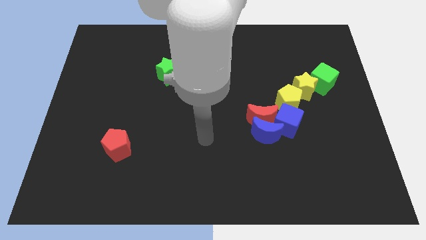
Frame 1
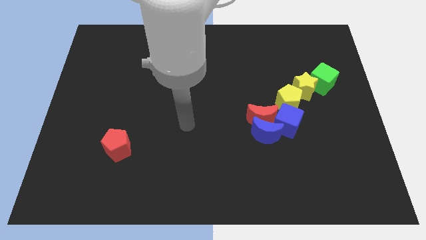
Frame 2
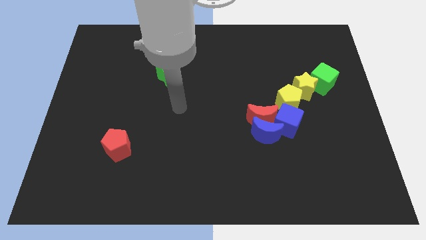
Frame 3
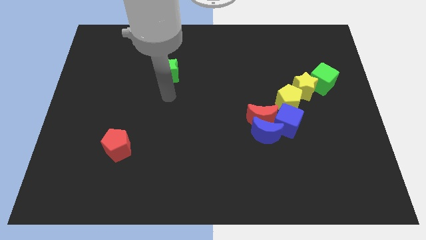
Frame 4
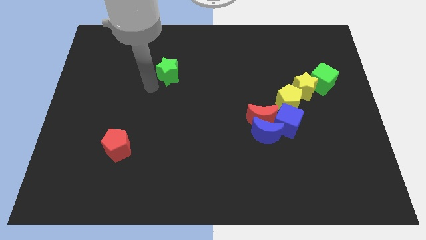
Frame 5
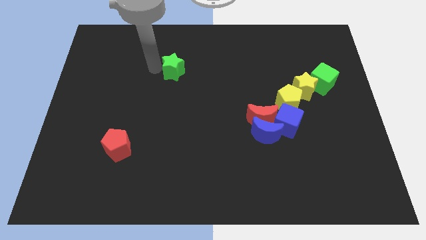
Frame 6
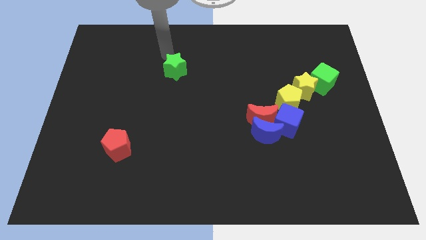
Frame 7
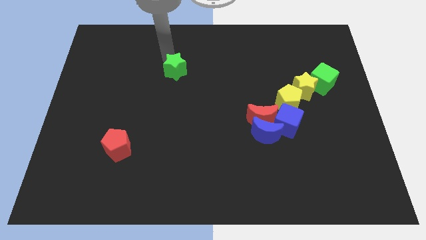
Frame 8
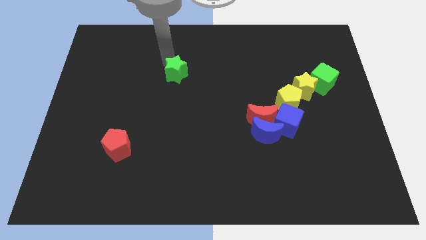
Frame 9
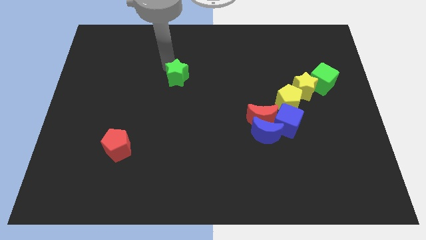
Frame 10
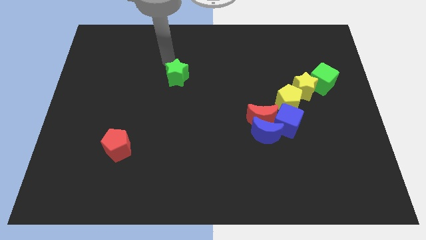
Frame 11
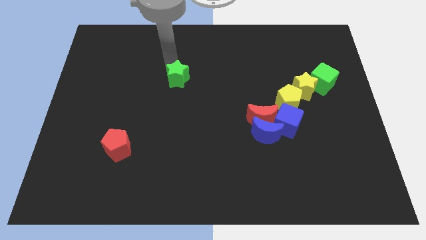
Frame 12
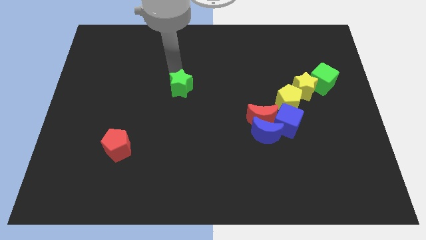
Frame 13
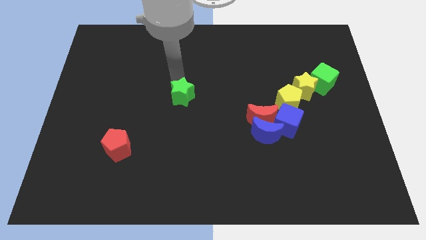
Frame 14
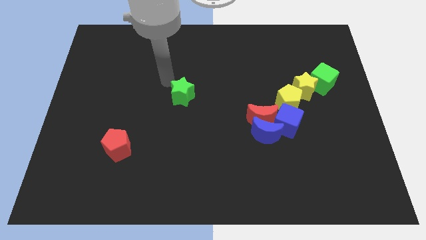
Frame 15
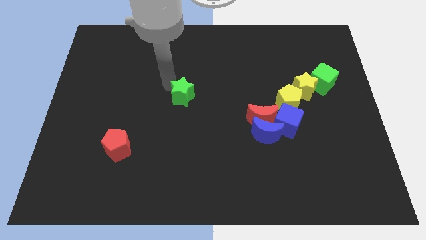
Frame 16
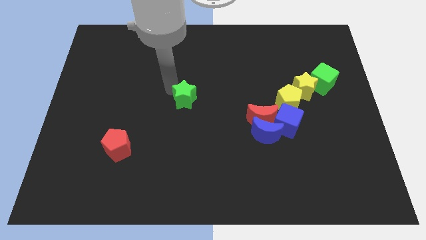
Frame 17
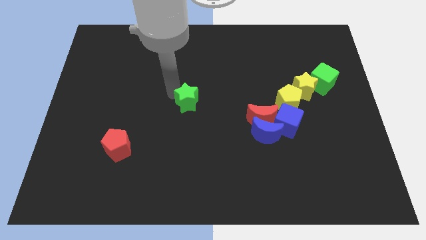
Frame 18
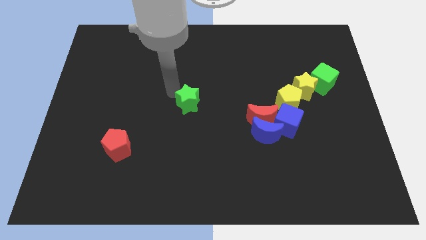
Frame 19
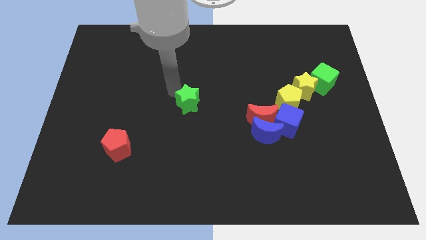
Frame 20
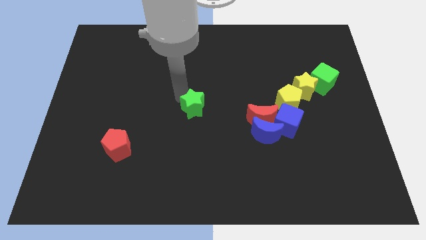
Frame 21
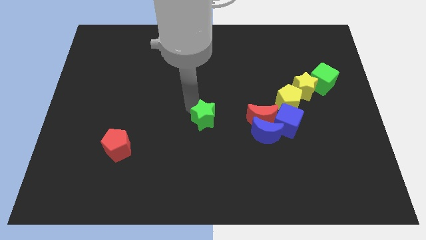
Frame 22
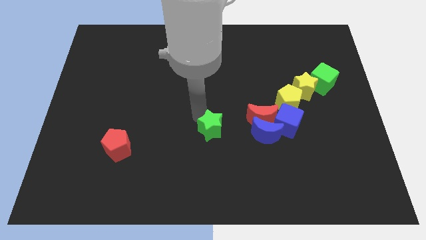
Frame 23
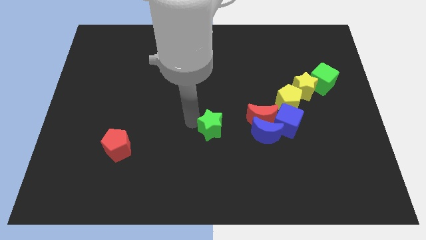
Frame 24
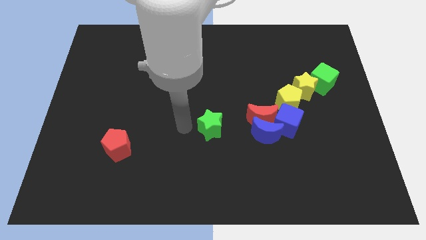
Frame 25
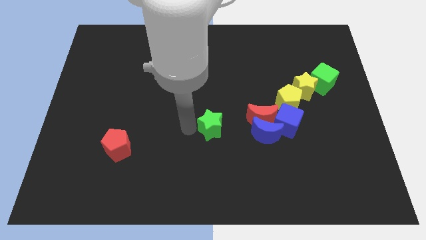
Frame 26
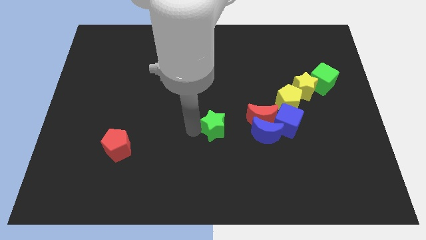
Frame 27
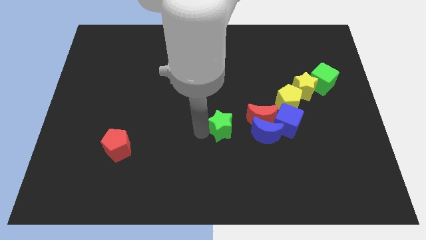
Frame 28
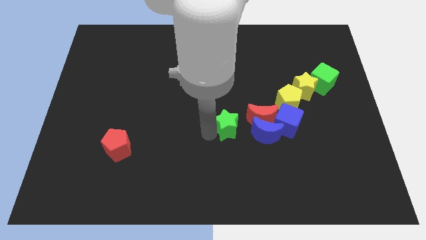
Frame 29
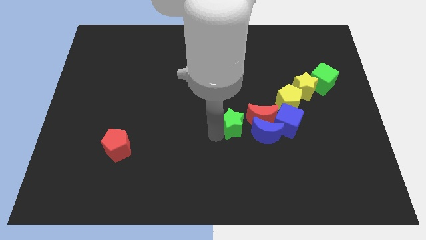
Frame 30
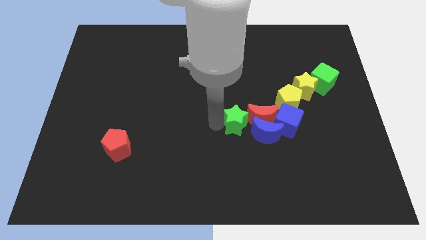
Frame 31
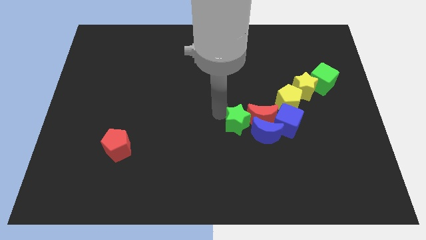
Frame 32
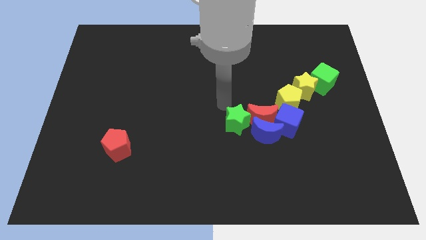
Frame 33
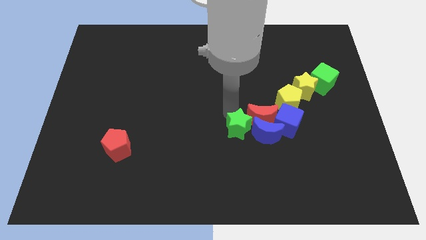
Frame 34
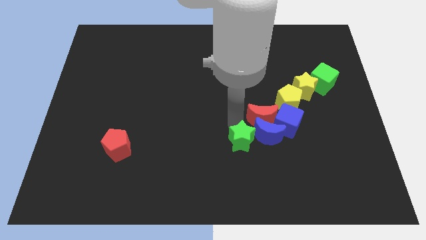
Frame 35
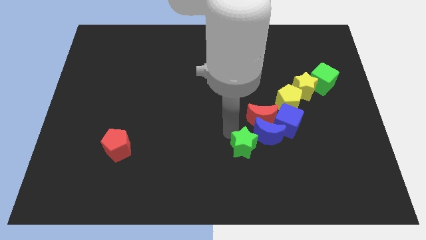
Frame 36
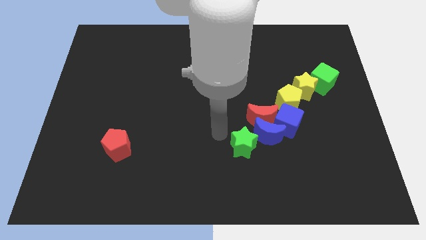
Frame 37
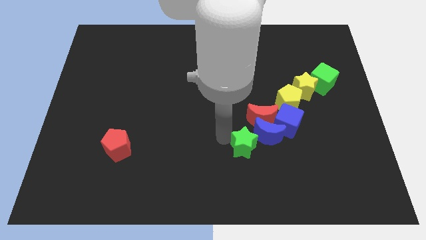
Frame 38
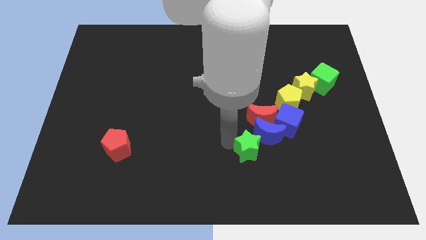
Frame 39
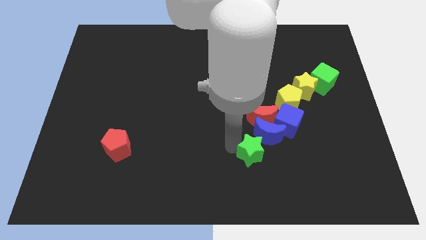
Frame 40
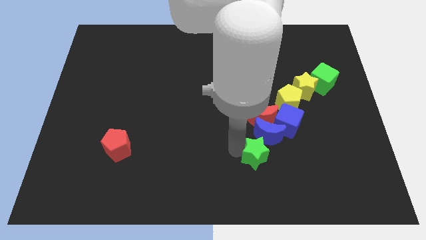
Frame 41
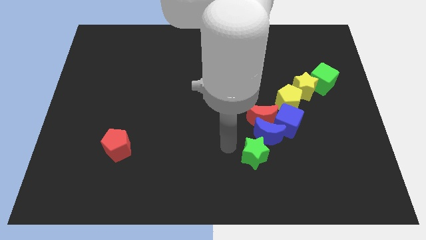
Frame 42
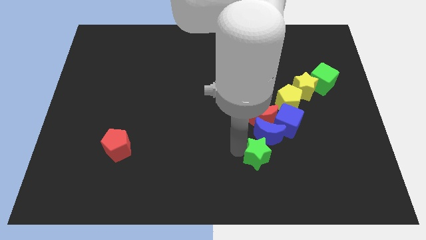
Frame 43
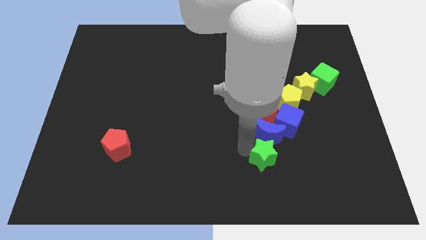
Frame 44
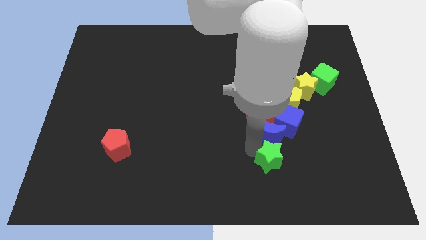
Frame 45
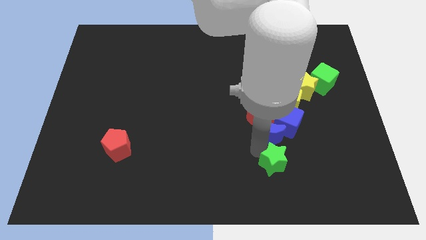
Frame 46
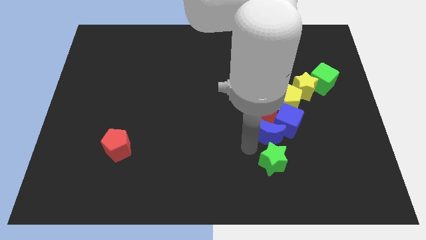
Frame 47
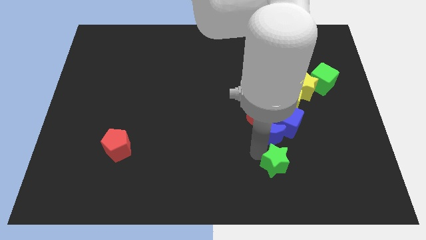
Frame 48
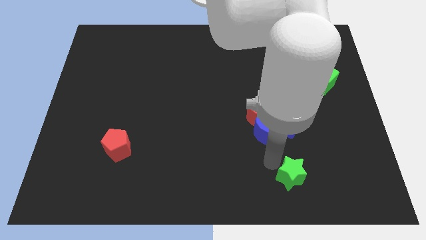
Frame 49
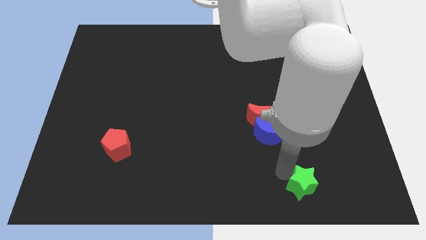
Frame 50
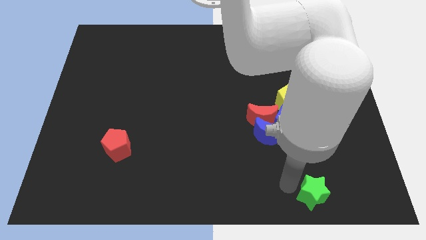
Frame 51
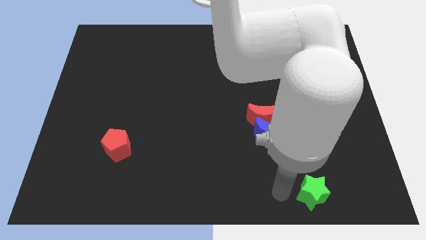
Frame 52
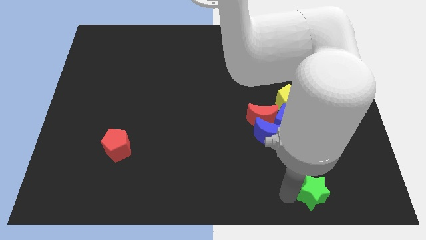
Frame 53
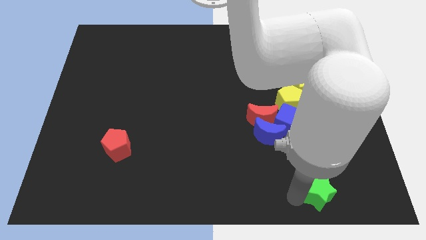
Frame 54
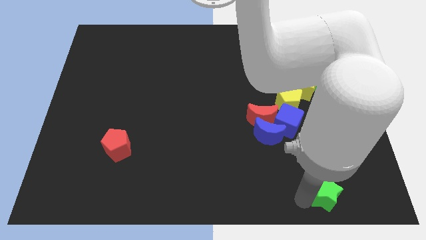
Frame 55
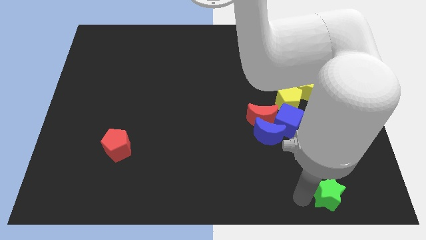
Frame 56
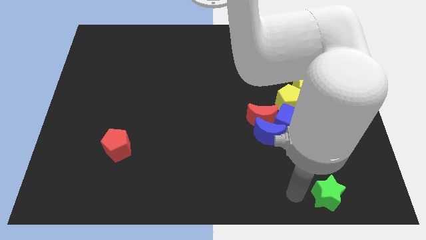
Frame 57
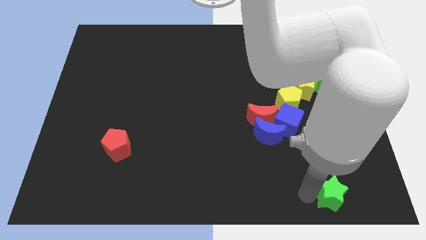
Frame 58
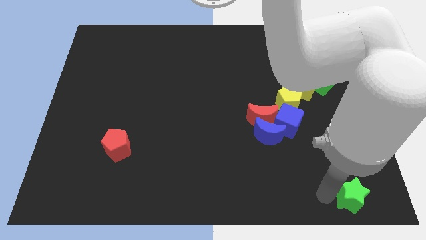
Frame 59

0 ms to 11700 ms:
move the green star to the lower right corner

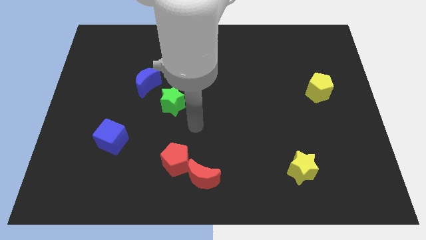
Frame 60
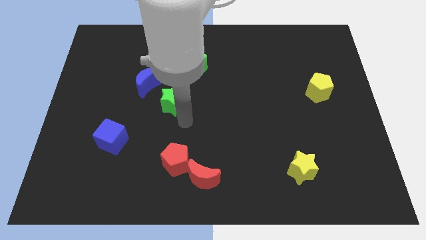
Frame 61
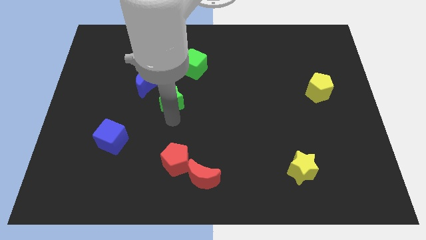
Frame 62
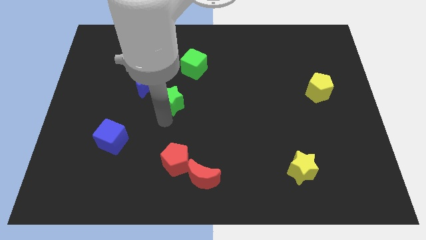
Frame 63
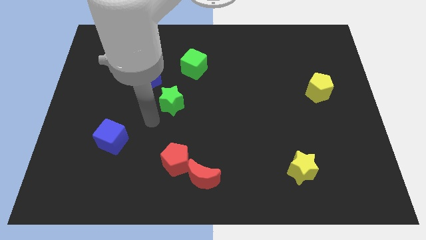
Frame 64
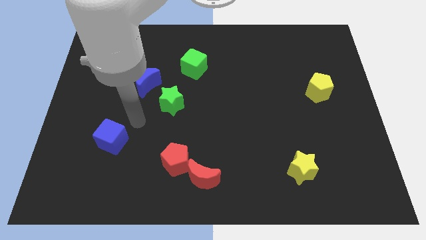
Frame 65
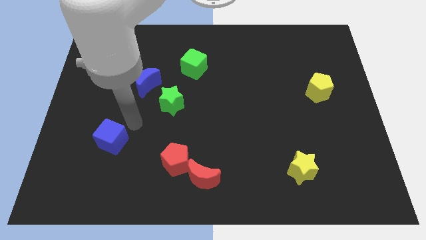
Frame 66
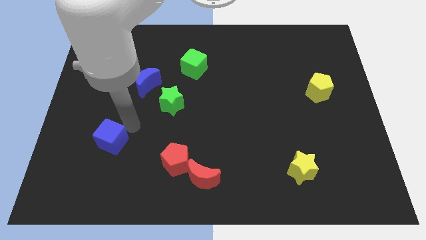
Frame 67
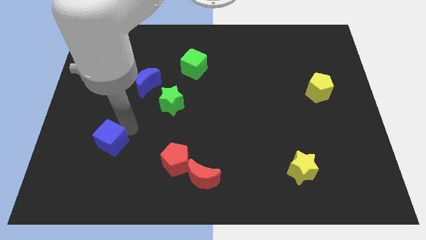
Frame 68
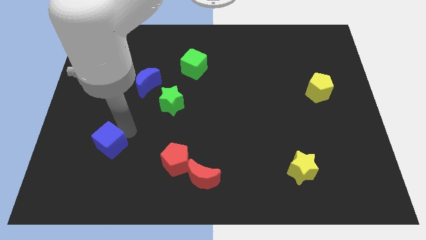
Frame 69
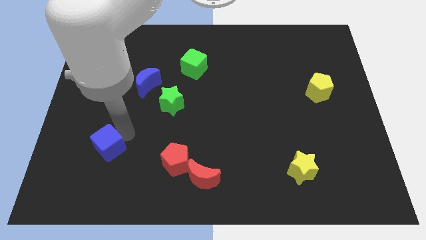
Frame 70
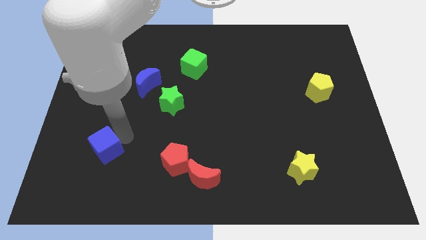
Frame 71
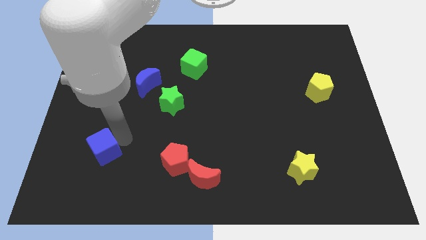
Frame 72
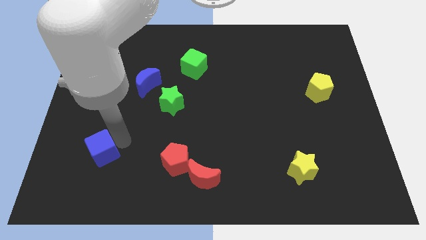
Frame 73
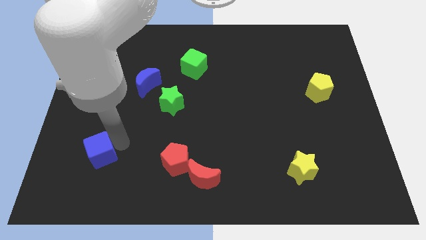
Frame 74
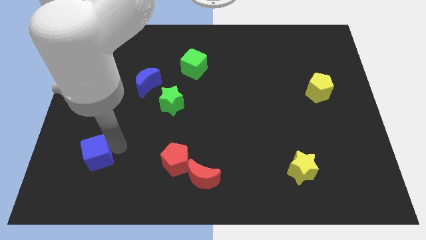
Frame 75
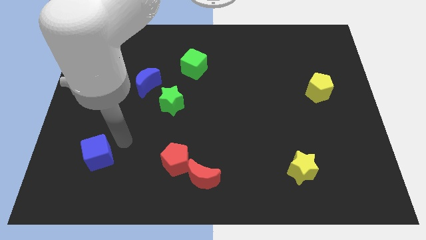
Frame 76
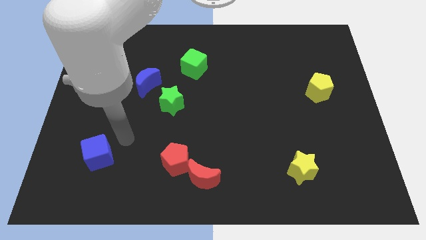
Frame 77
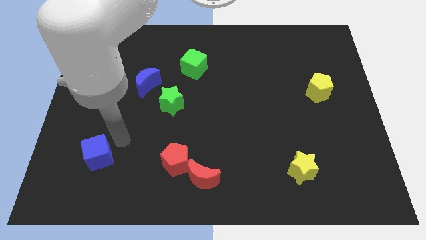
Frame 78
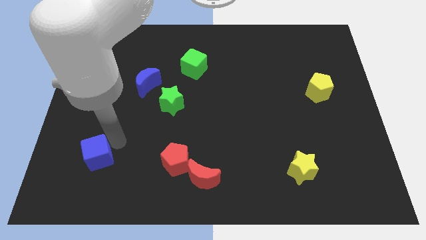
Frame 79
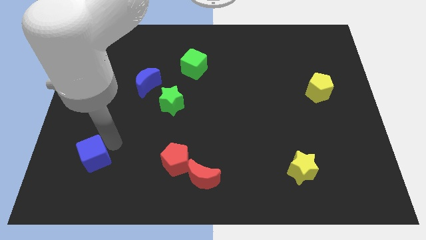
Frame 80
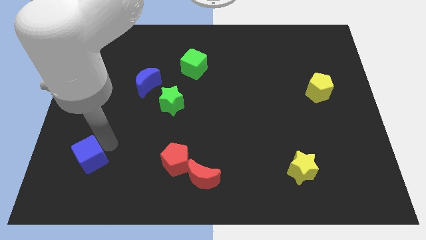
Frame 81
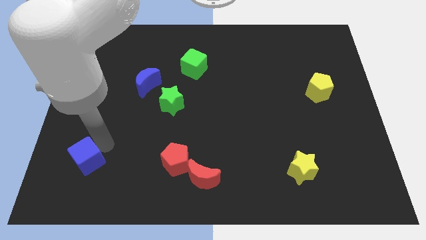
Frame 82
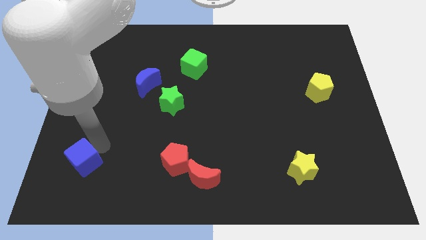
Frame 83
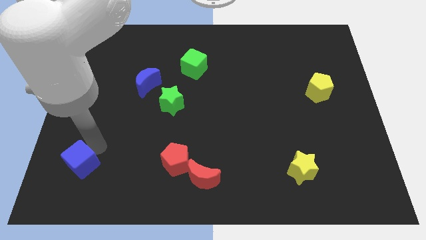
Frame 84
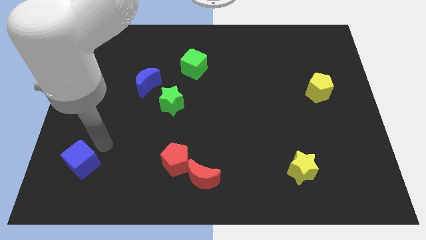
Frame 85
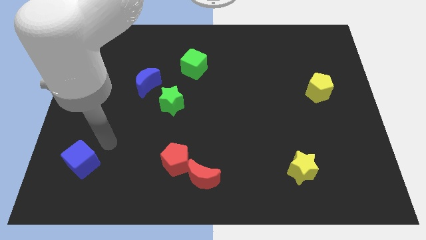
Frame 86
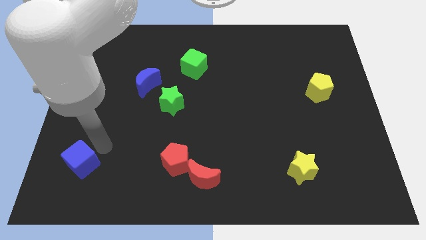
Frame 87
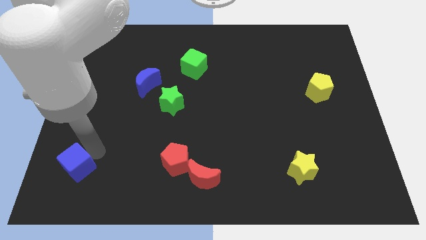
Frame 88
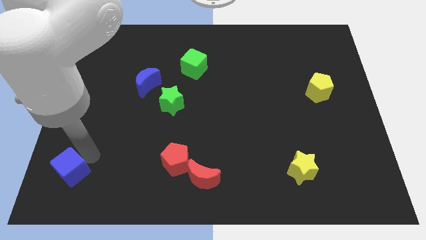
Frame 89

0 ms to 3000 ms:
move the blue cube to the bottom left
